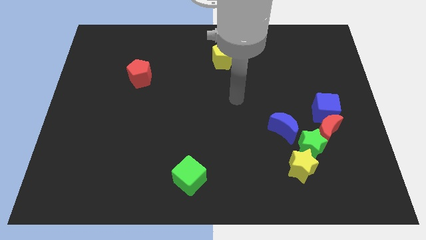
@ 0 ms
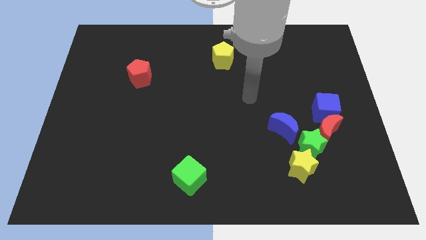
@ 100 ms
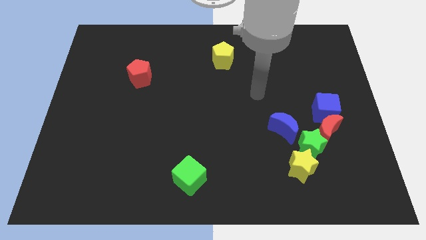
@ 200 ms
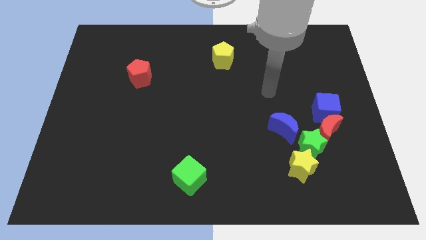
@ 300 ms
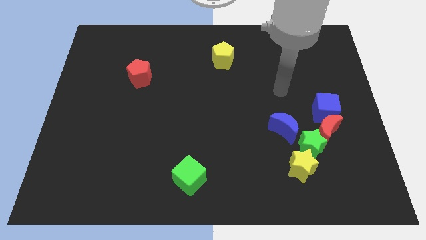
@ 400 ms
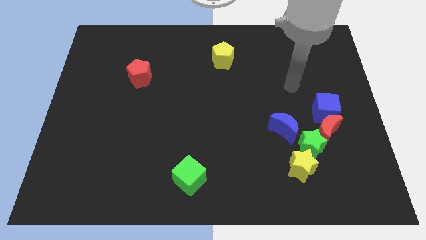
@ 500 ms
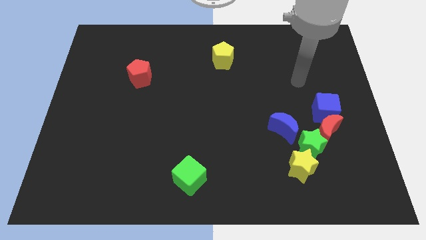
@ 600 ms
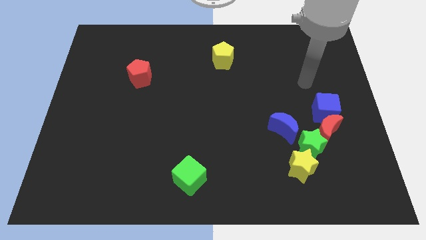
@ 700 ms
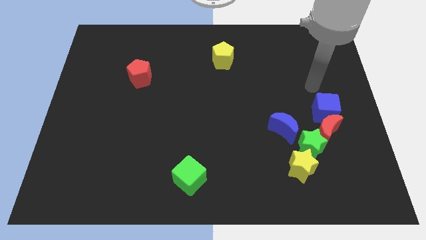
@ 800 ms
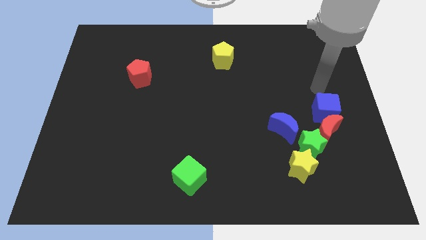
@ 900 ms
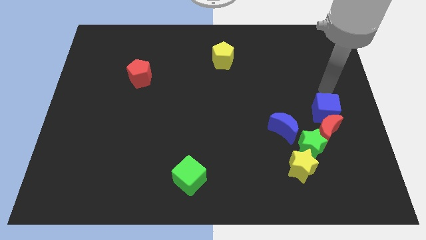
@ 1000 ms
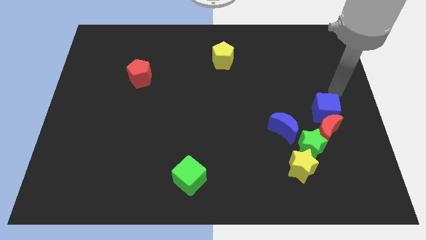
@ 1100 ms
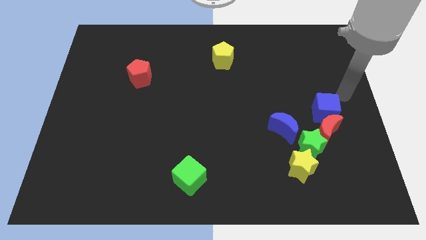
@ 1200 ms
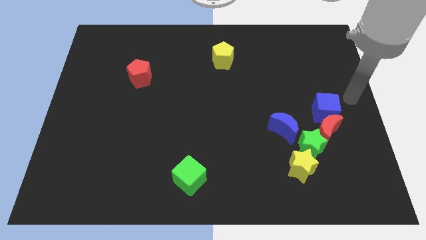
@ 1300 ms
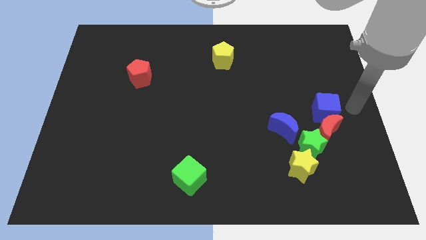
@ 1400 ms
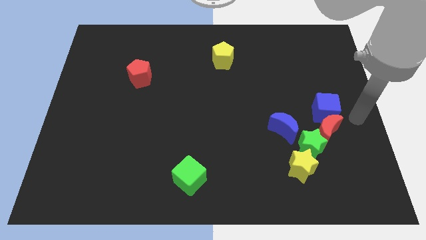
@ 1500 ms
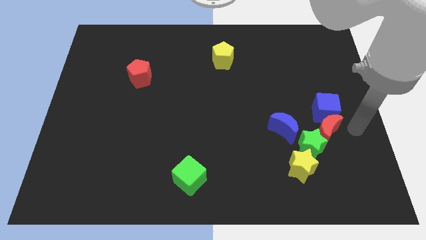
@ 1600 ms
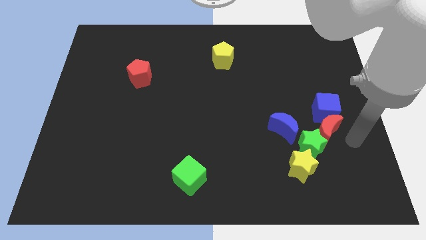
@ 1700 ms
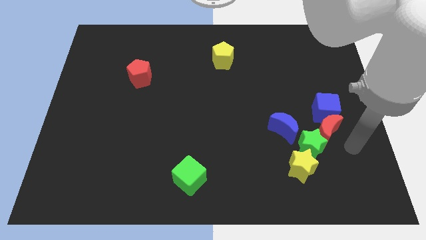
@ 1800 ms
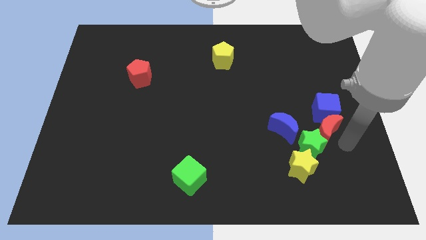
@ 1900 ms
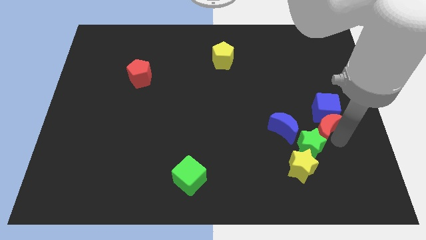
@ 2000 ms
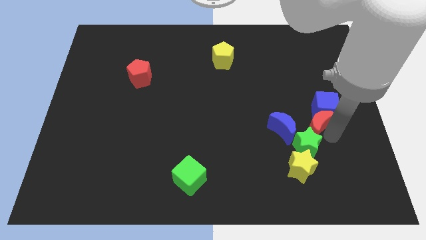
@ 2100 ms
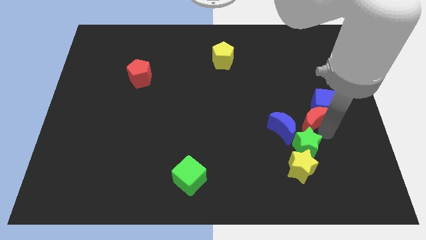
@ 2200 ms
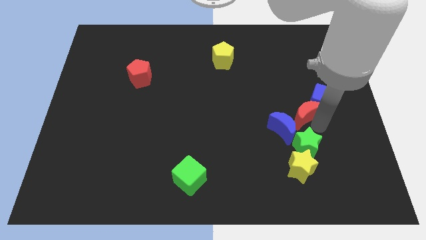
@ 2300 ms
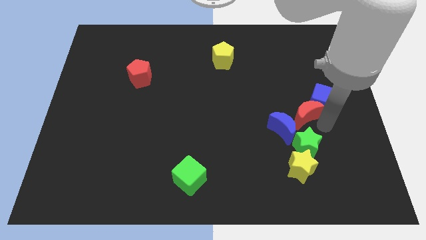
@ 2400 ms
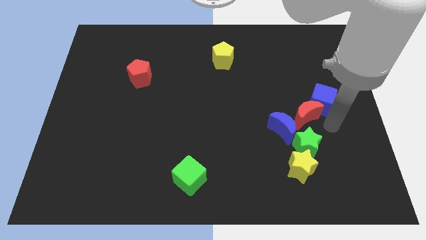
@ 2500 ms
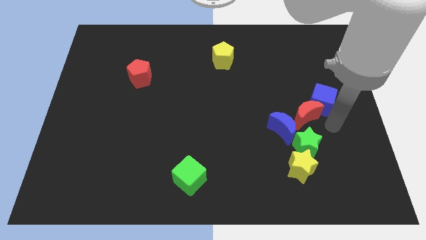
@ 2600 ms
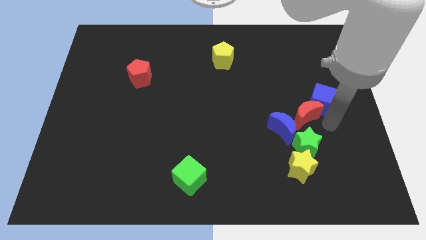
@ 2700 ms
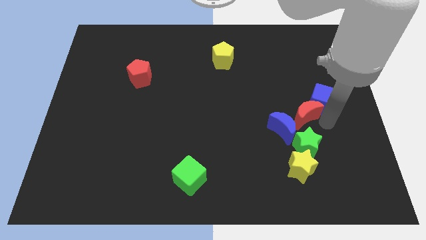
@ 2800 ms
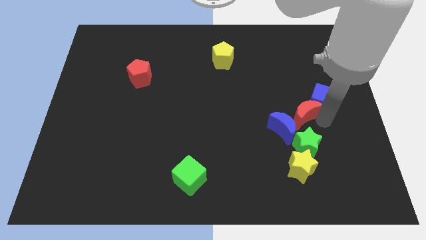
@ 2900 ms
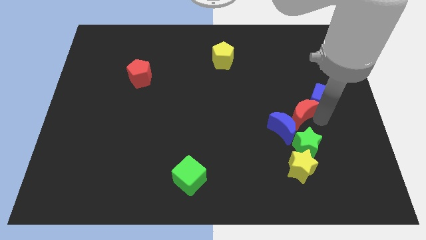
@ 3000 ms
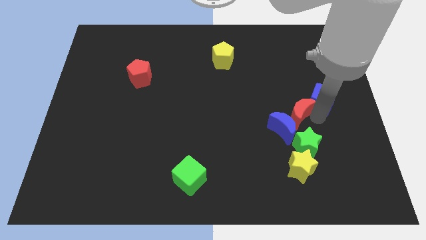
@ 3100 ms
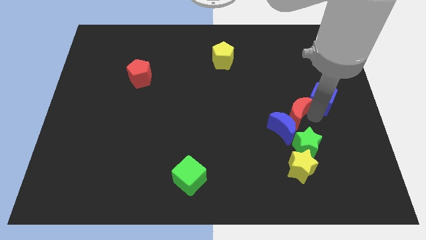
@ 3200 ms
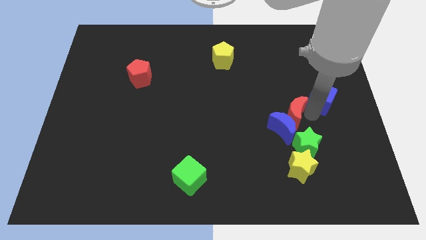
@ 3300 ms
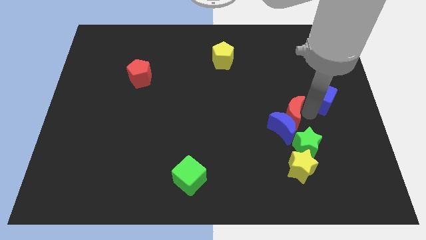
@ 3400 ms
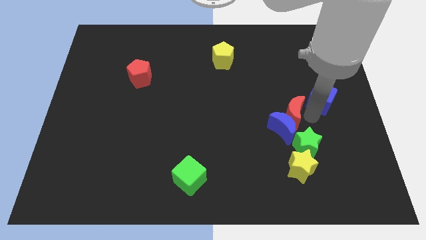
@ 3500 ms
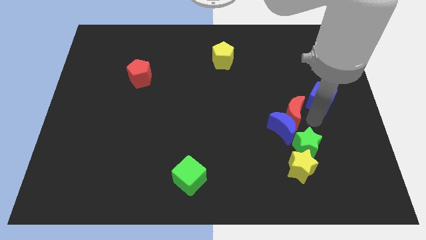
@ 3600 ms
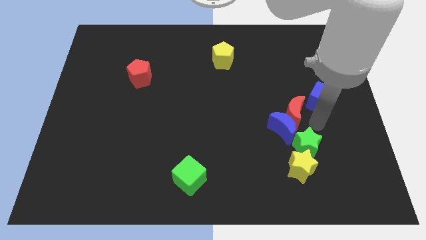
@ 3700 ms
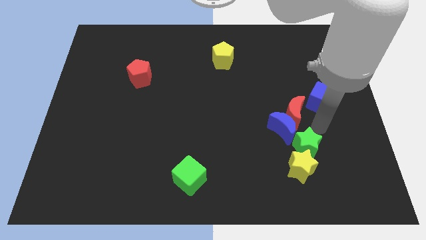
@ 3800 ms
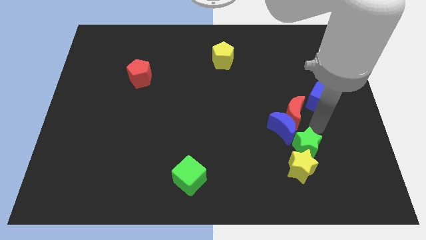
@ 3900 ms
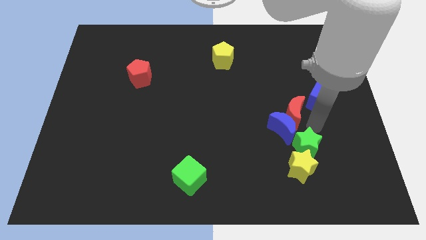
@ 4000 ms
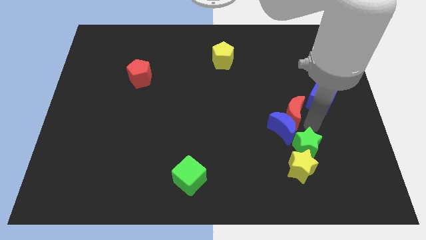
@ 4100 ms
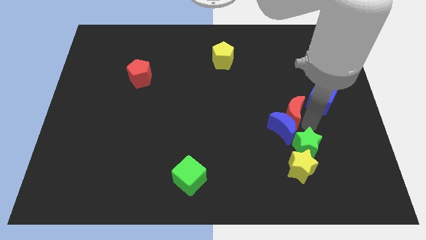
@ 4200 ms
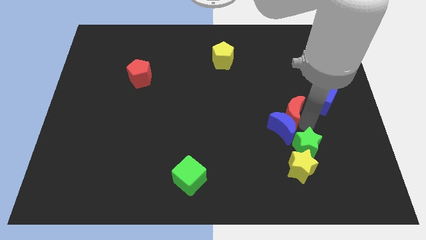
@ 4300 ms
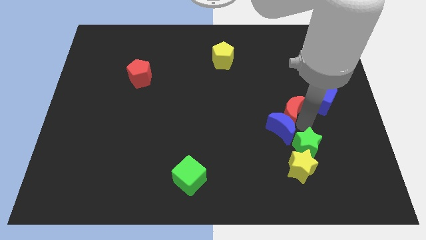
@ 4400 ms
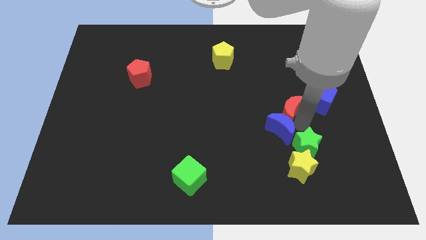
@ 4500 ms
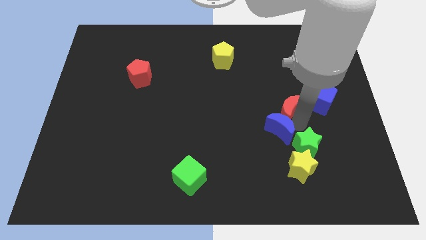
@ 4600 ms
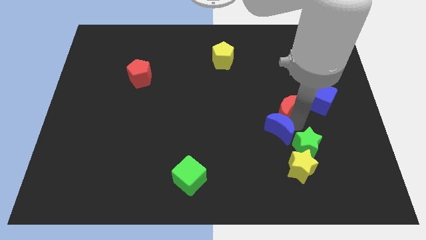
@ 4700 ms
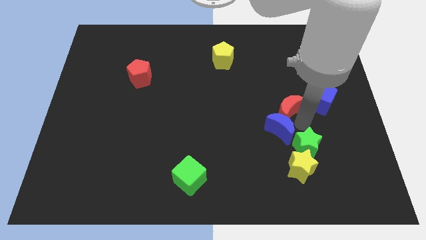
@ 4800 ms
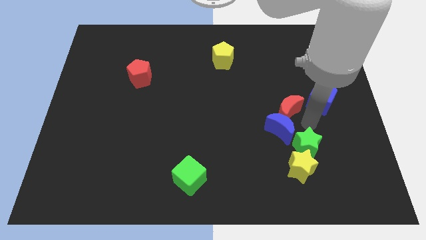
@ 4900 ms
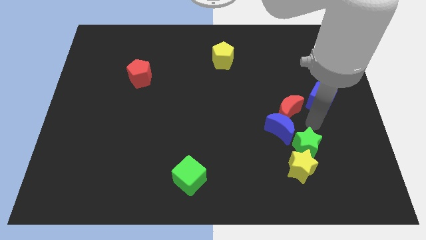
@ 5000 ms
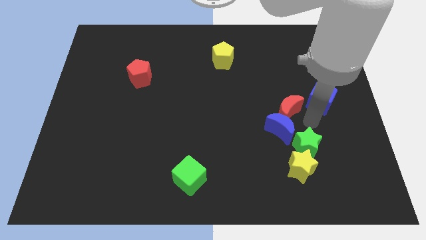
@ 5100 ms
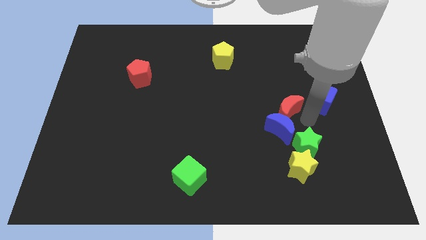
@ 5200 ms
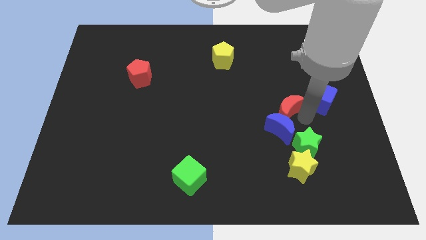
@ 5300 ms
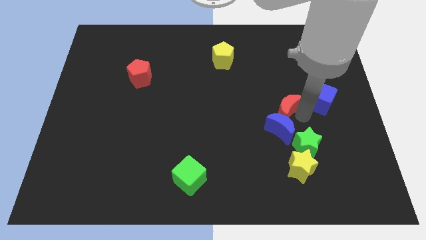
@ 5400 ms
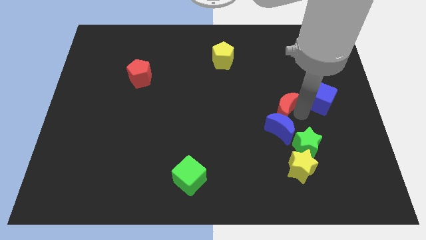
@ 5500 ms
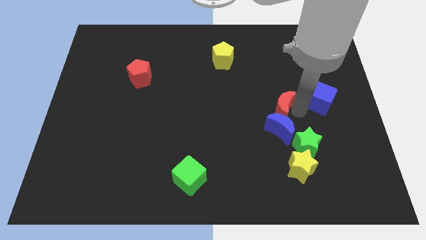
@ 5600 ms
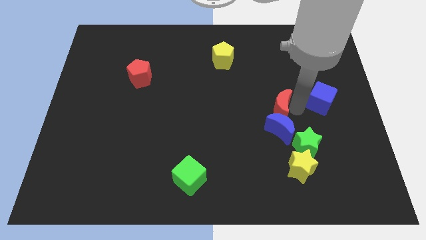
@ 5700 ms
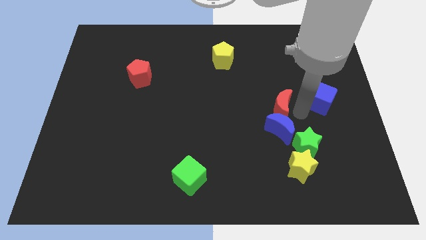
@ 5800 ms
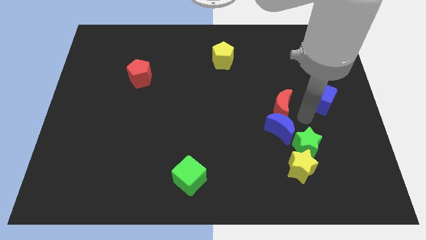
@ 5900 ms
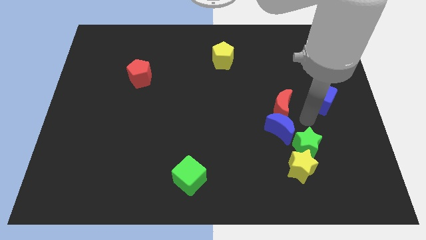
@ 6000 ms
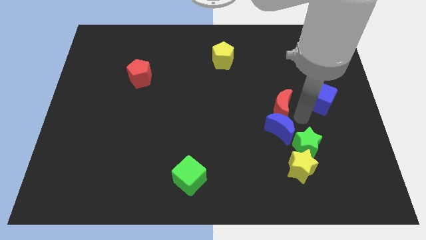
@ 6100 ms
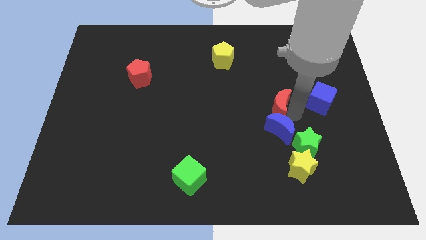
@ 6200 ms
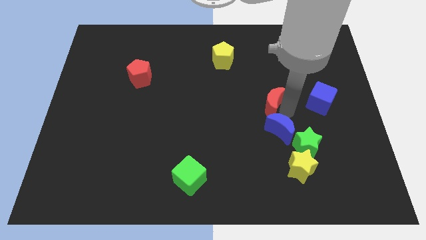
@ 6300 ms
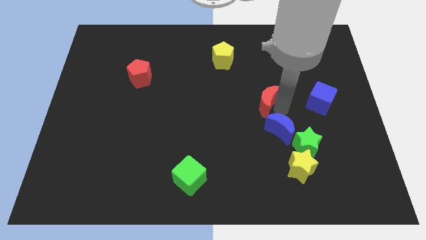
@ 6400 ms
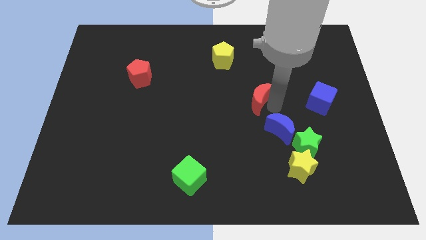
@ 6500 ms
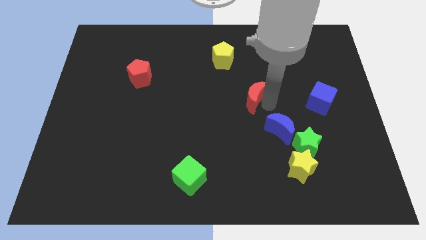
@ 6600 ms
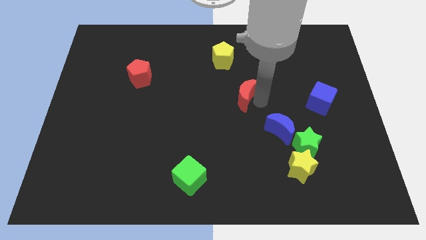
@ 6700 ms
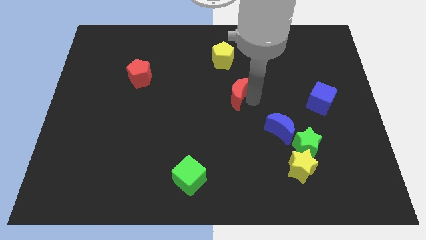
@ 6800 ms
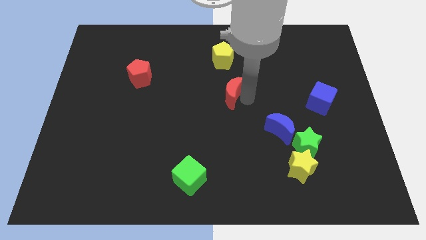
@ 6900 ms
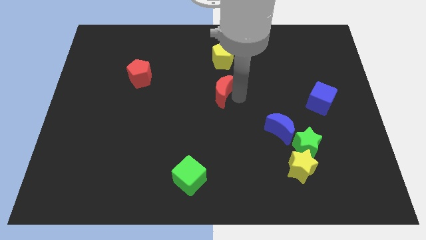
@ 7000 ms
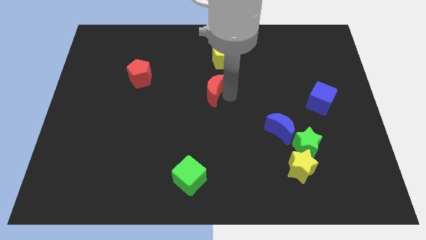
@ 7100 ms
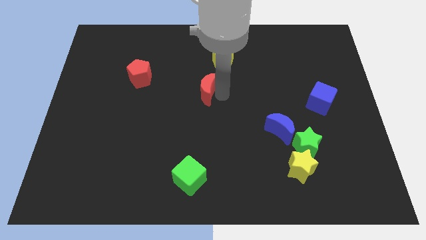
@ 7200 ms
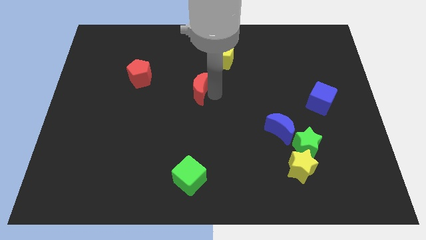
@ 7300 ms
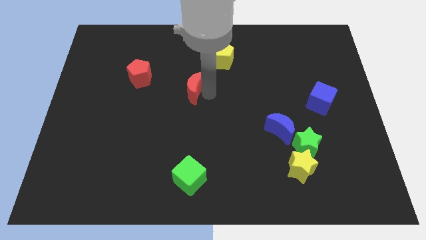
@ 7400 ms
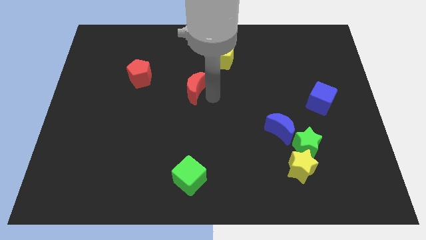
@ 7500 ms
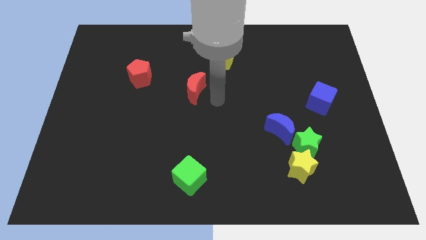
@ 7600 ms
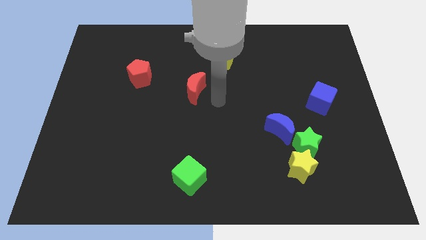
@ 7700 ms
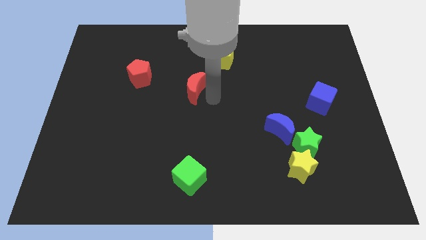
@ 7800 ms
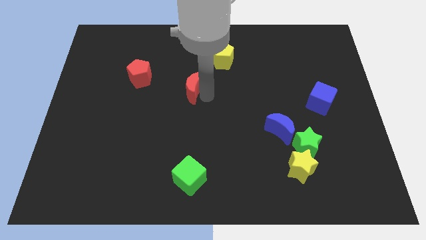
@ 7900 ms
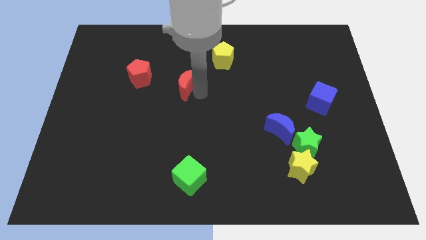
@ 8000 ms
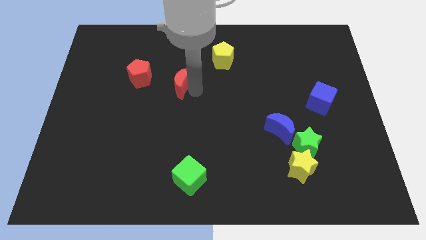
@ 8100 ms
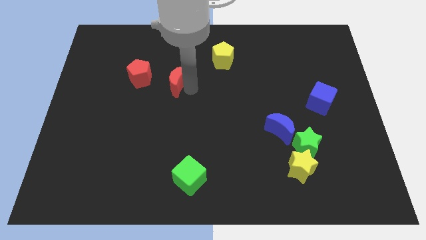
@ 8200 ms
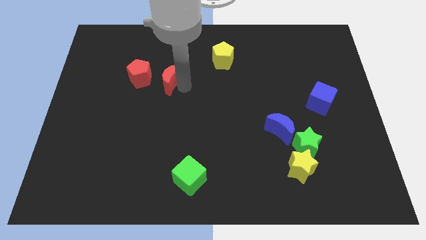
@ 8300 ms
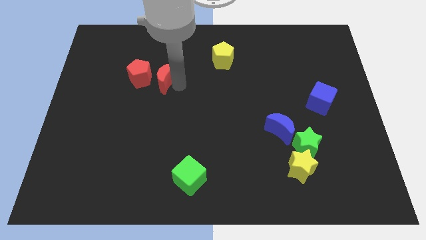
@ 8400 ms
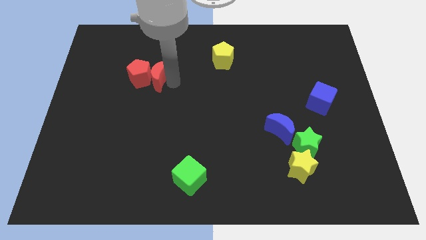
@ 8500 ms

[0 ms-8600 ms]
push the red moon to the red pentagon
